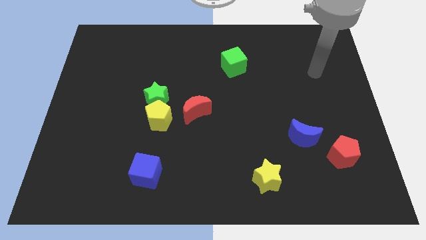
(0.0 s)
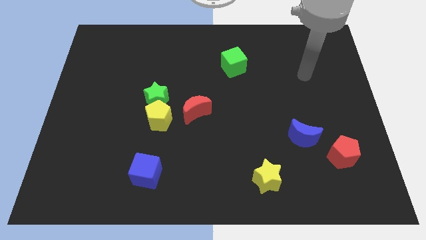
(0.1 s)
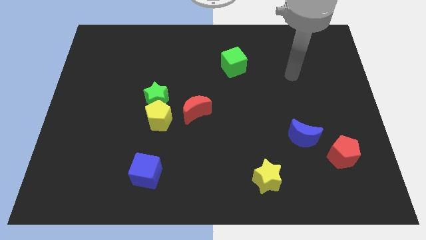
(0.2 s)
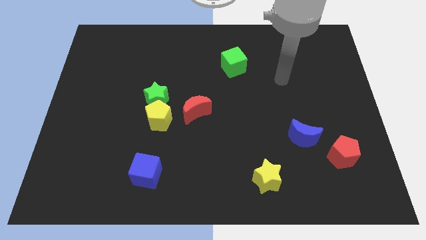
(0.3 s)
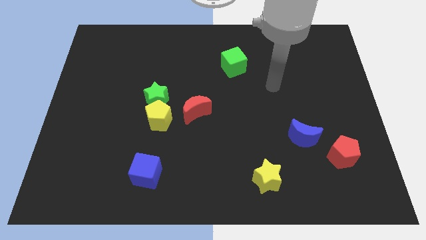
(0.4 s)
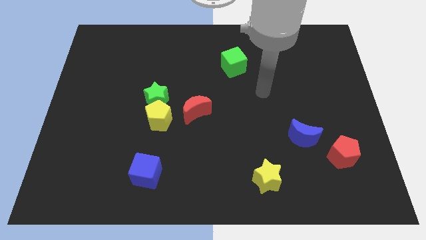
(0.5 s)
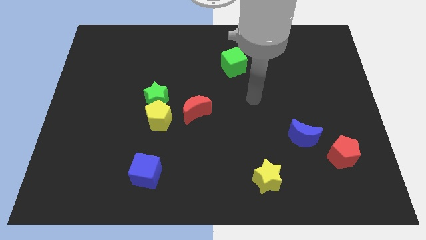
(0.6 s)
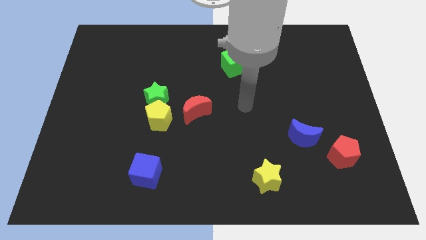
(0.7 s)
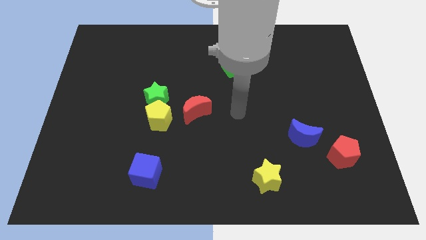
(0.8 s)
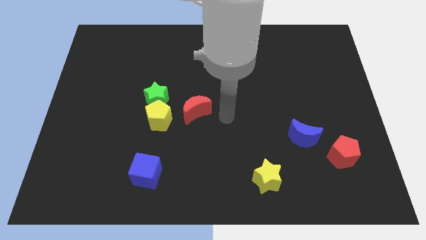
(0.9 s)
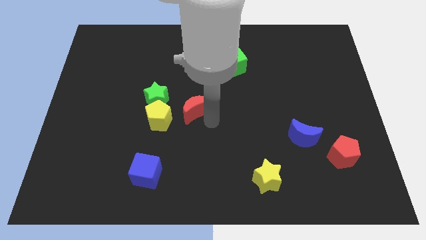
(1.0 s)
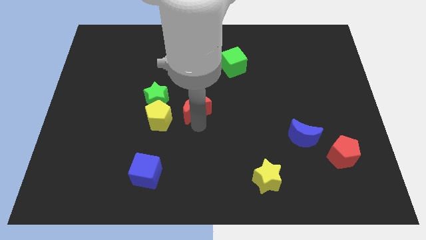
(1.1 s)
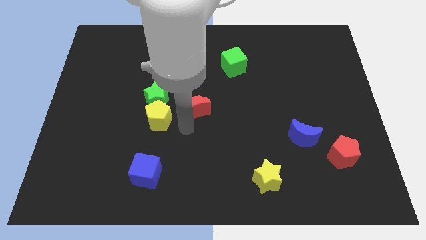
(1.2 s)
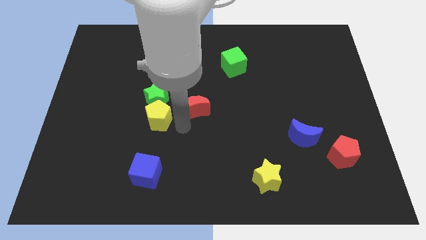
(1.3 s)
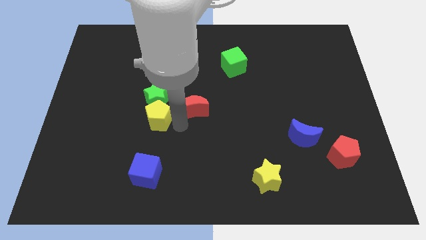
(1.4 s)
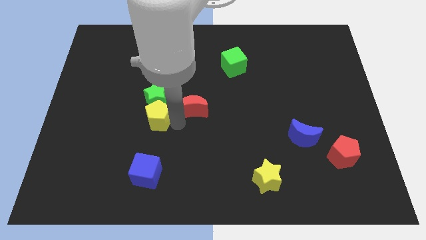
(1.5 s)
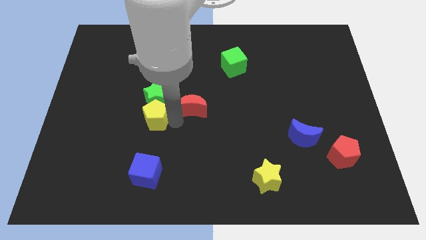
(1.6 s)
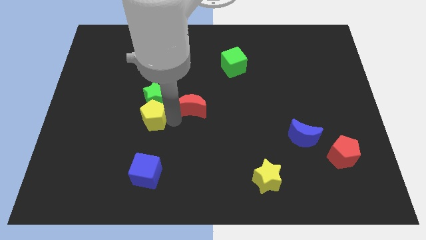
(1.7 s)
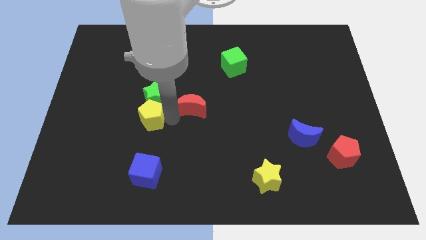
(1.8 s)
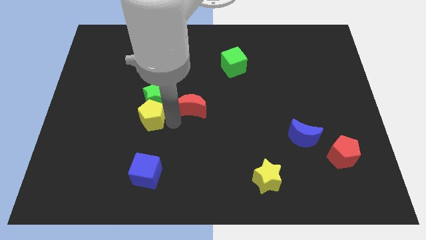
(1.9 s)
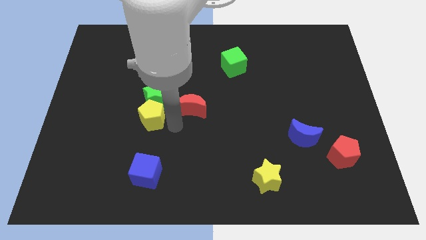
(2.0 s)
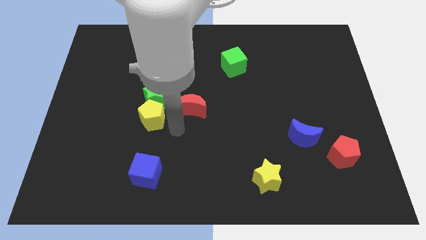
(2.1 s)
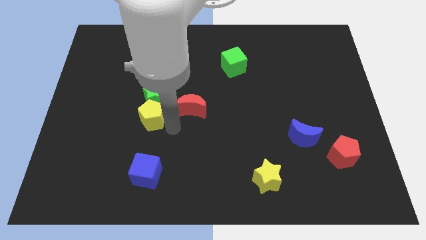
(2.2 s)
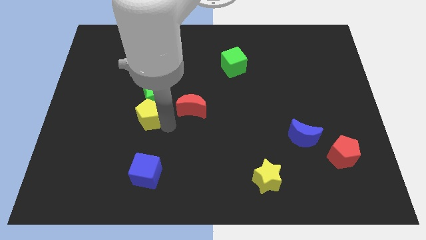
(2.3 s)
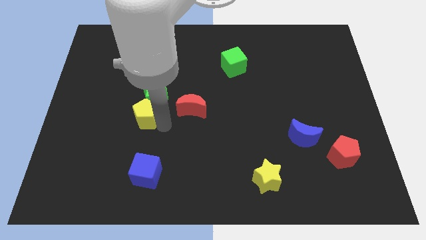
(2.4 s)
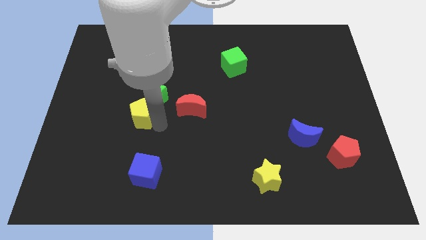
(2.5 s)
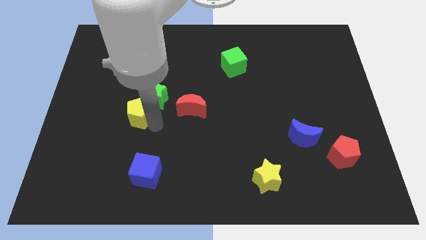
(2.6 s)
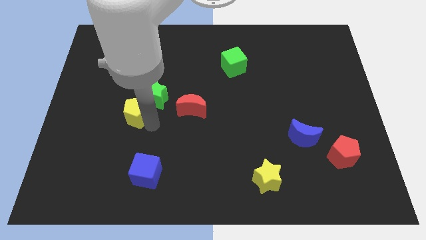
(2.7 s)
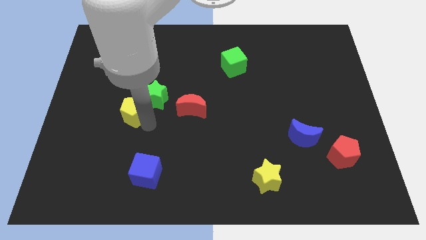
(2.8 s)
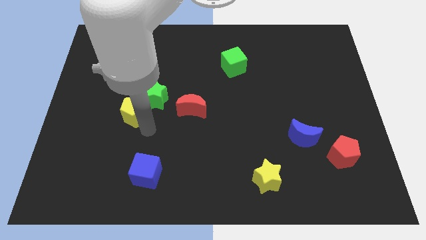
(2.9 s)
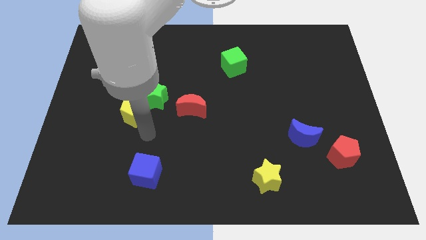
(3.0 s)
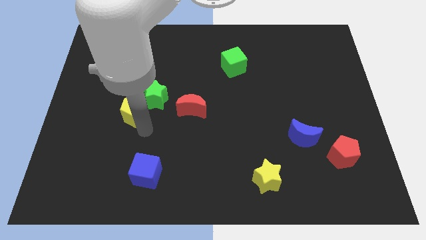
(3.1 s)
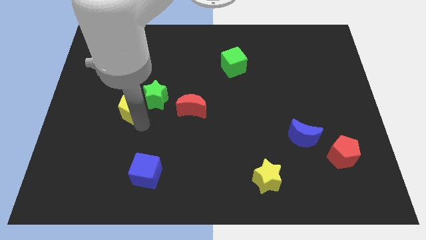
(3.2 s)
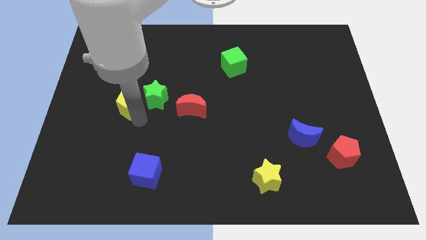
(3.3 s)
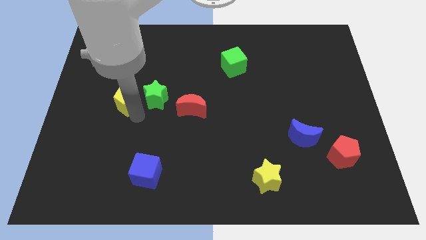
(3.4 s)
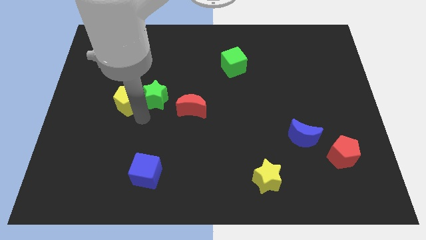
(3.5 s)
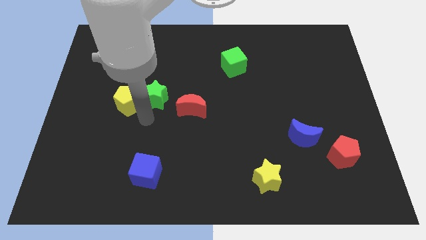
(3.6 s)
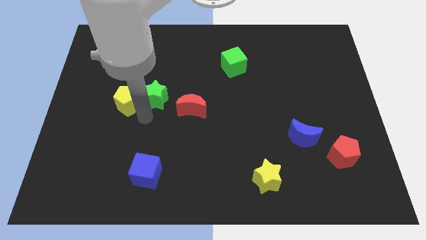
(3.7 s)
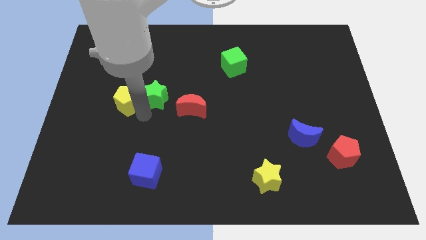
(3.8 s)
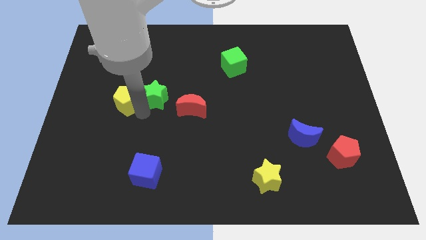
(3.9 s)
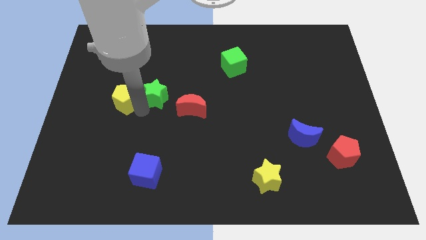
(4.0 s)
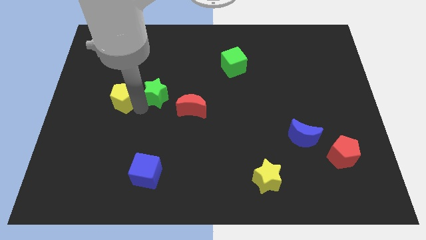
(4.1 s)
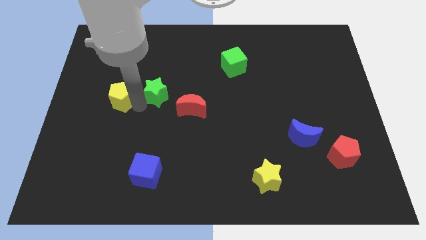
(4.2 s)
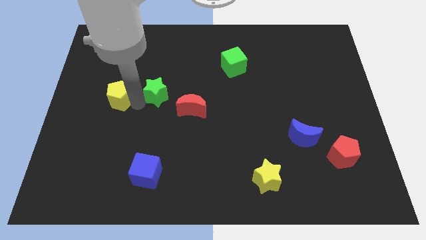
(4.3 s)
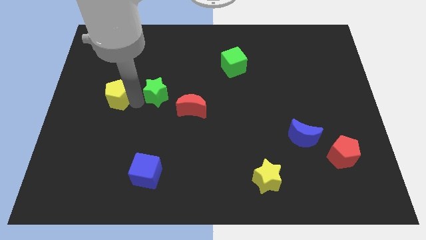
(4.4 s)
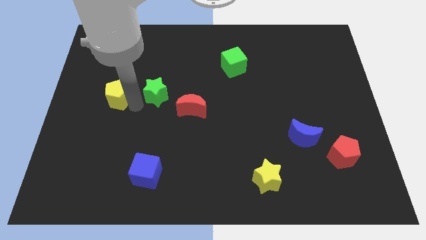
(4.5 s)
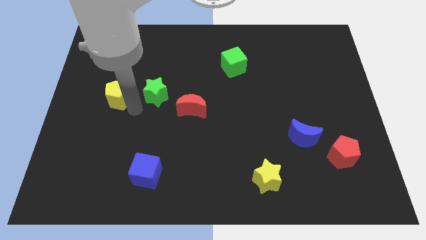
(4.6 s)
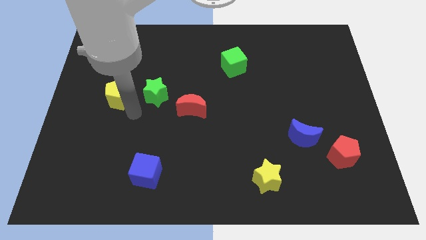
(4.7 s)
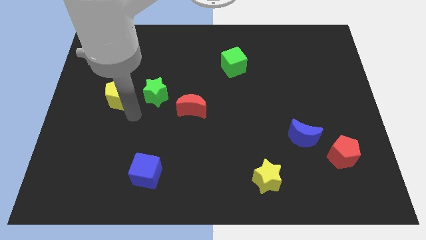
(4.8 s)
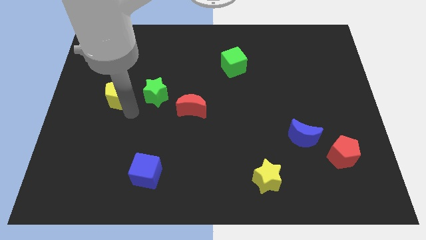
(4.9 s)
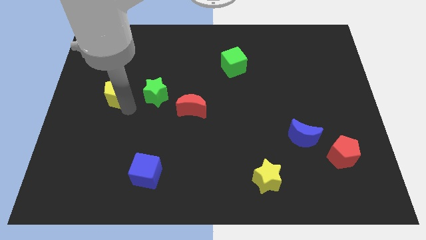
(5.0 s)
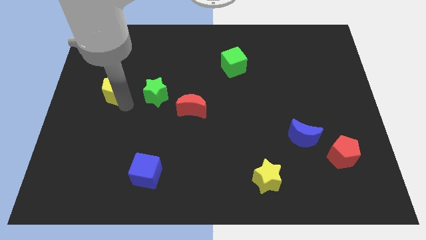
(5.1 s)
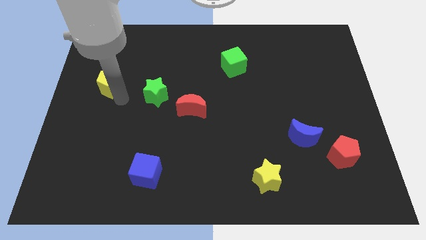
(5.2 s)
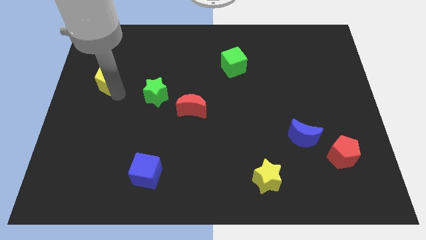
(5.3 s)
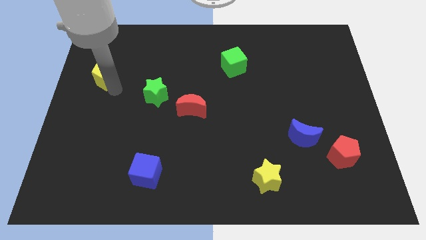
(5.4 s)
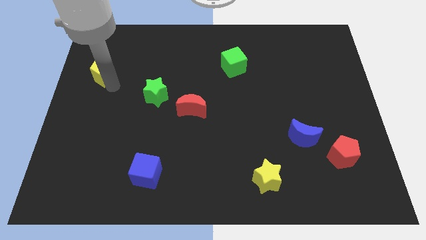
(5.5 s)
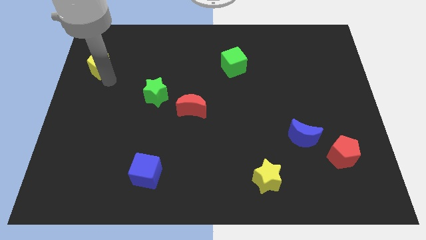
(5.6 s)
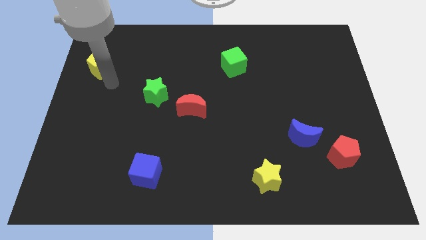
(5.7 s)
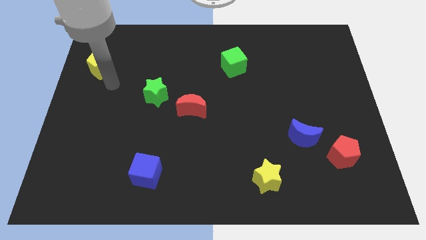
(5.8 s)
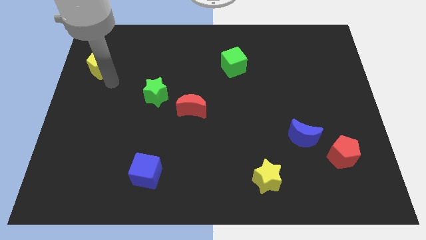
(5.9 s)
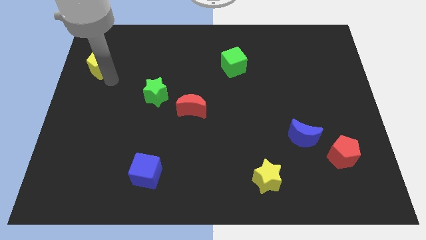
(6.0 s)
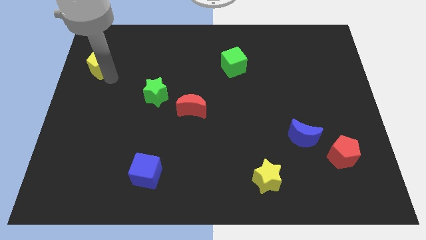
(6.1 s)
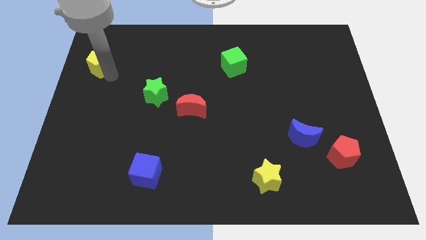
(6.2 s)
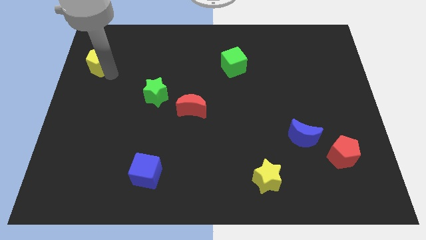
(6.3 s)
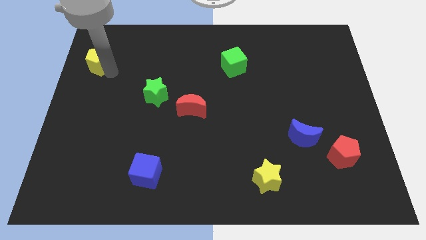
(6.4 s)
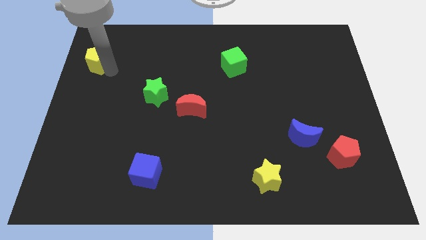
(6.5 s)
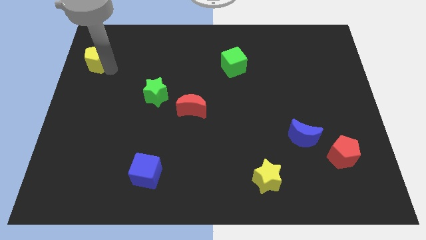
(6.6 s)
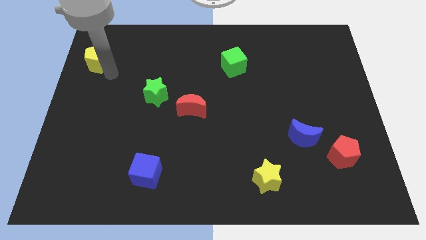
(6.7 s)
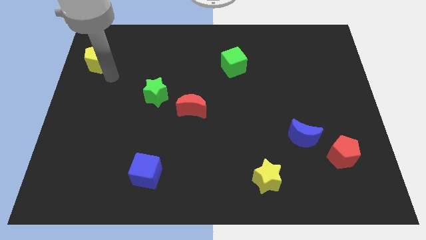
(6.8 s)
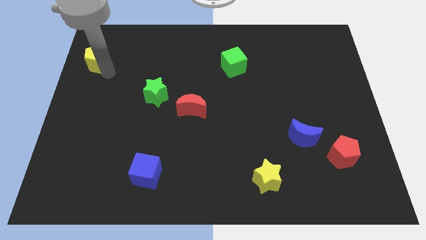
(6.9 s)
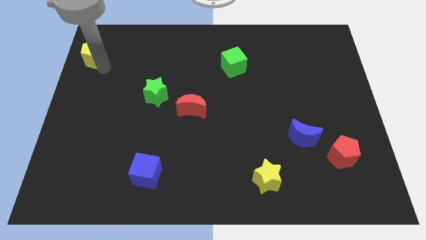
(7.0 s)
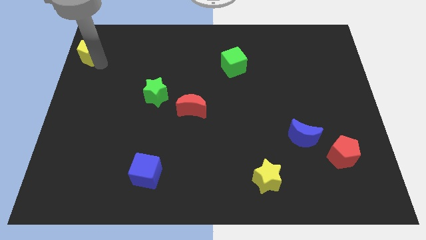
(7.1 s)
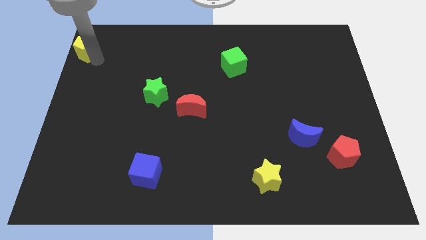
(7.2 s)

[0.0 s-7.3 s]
slide the yellow pentagon to the top left
